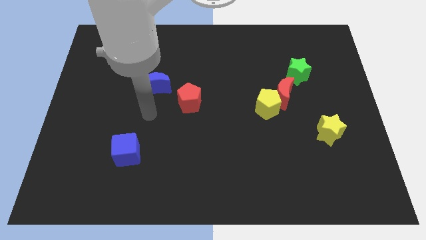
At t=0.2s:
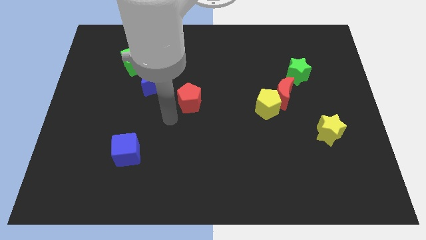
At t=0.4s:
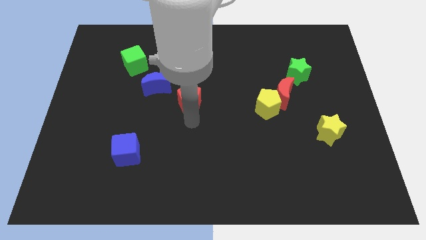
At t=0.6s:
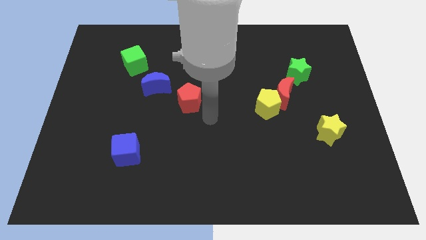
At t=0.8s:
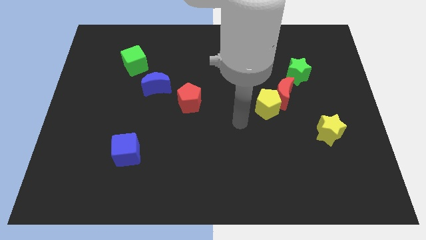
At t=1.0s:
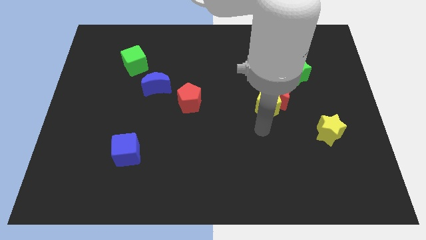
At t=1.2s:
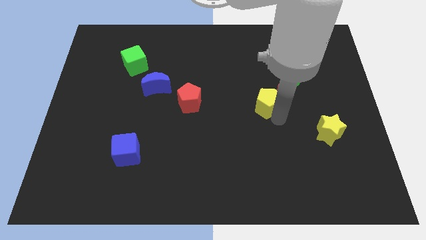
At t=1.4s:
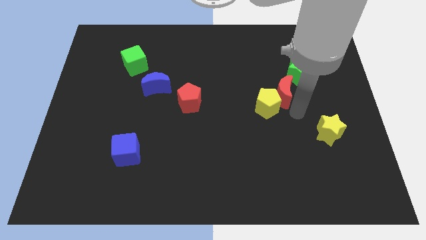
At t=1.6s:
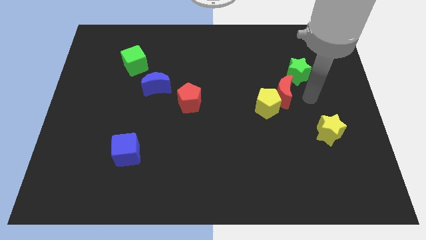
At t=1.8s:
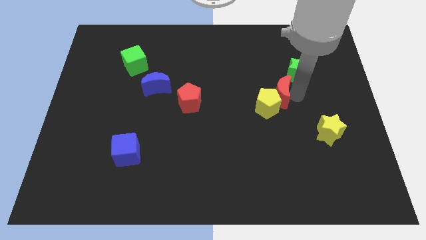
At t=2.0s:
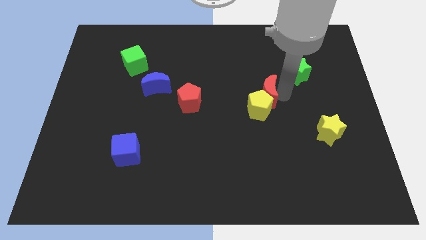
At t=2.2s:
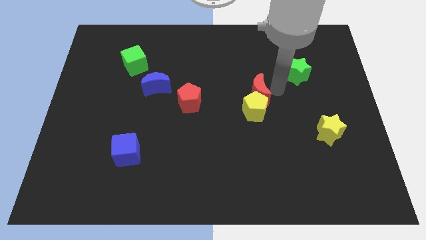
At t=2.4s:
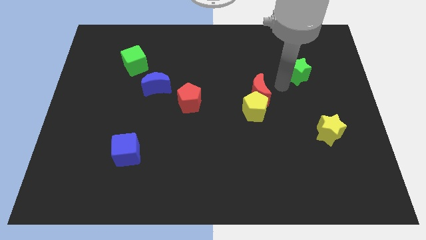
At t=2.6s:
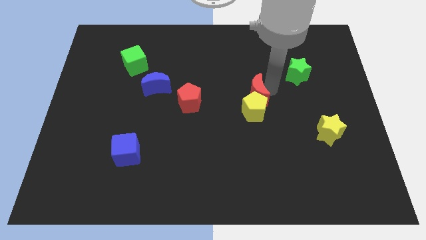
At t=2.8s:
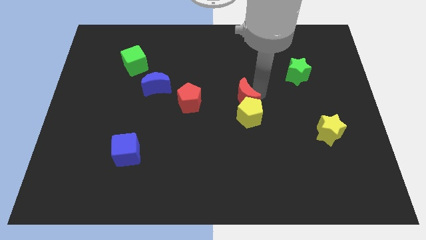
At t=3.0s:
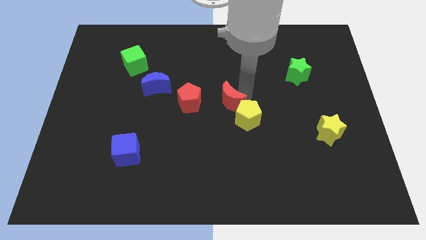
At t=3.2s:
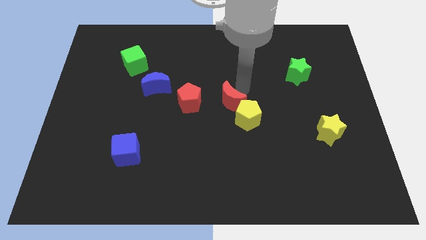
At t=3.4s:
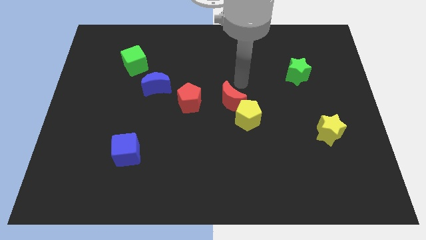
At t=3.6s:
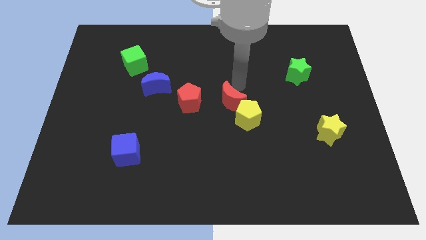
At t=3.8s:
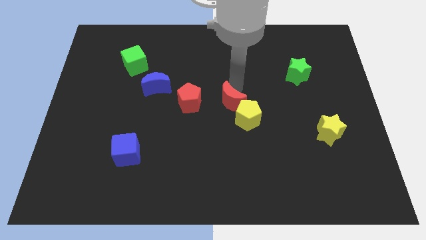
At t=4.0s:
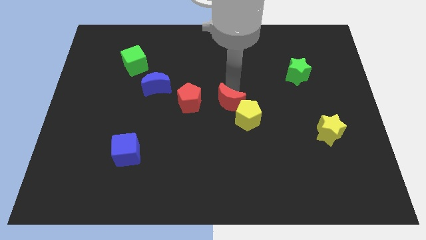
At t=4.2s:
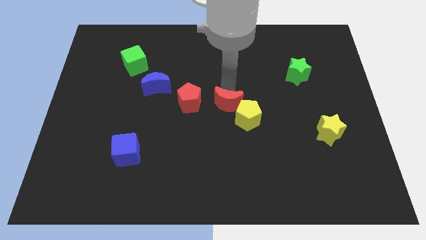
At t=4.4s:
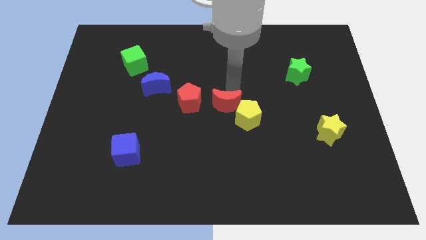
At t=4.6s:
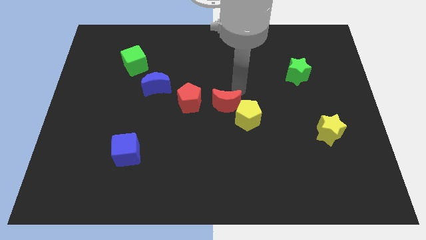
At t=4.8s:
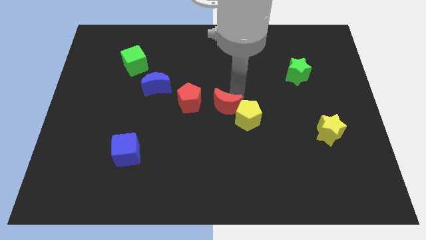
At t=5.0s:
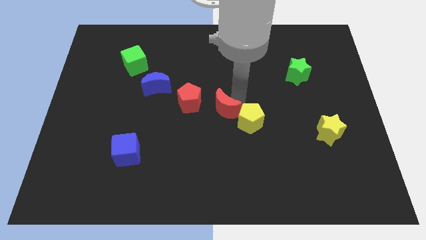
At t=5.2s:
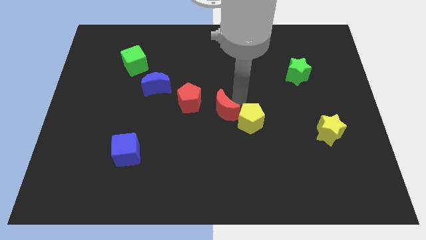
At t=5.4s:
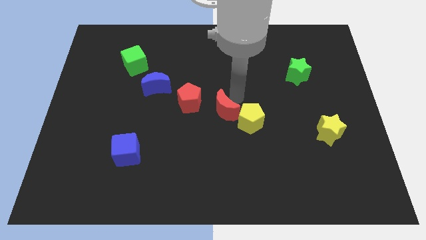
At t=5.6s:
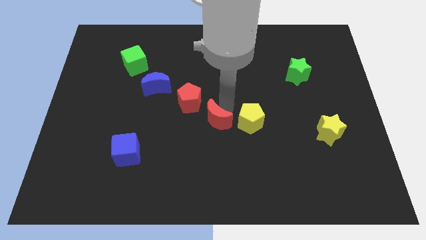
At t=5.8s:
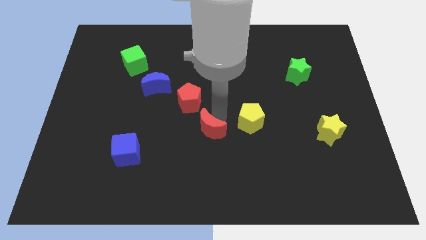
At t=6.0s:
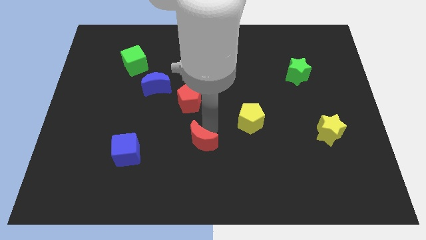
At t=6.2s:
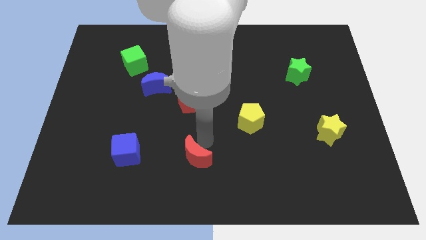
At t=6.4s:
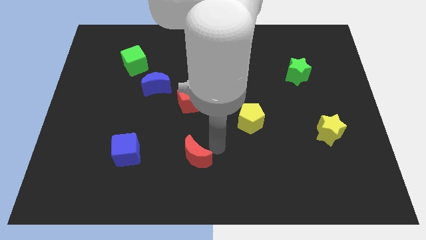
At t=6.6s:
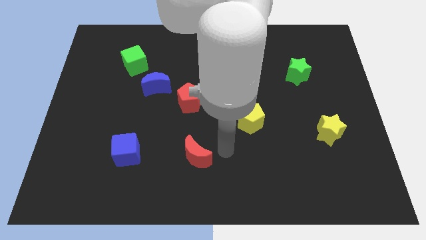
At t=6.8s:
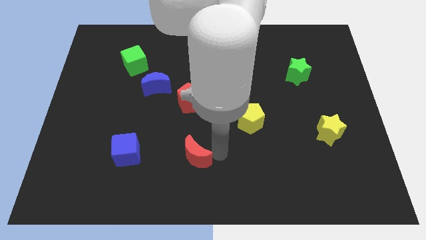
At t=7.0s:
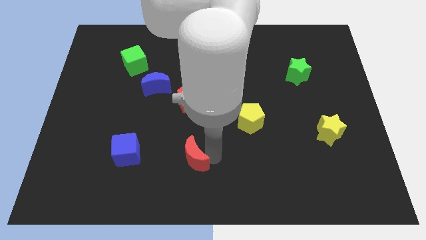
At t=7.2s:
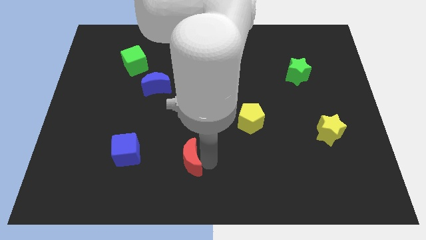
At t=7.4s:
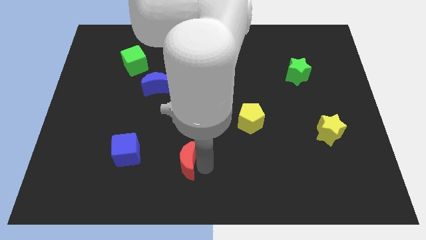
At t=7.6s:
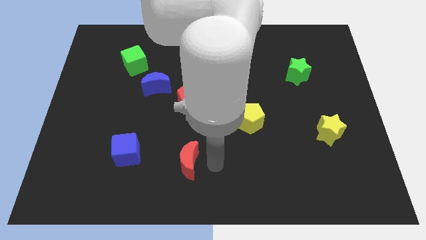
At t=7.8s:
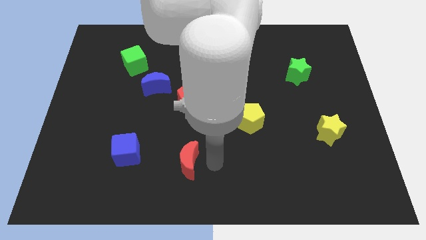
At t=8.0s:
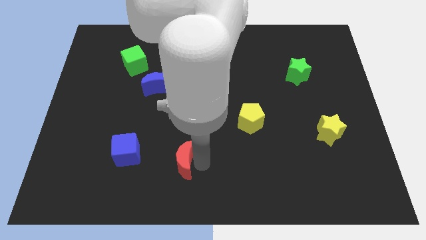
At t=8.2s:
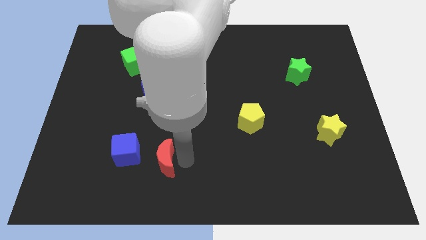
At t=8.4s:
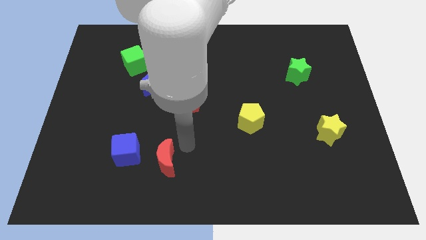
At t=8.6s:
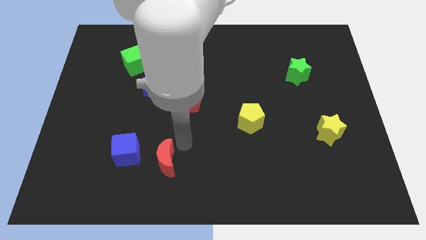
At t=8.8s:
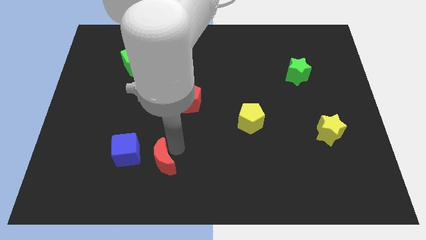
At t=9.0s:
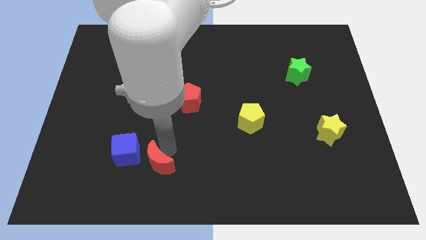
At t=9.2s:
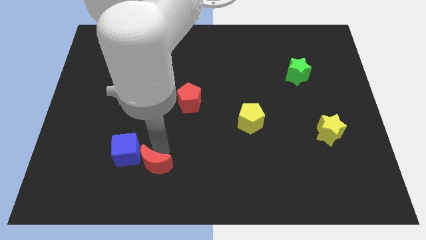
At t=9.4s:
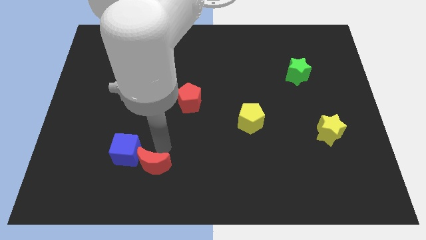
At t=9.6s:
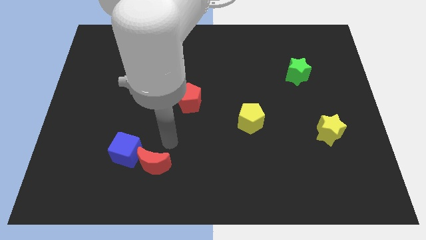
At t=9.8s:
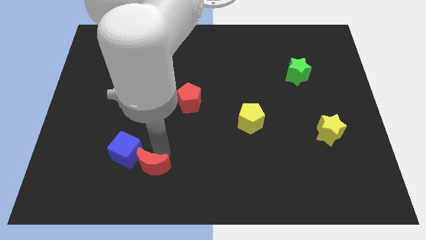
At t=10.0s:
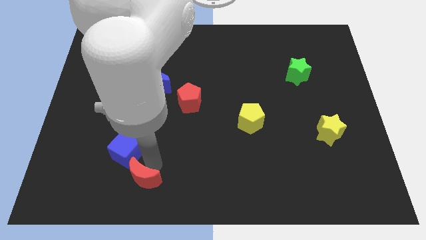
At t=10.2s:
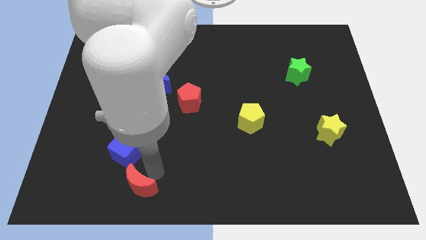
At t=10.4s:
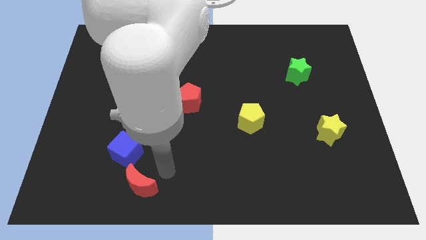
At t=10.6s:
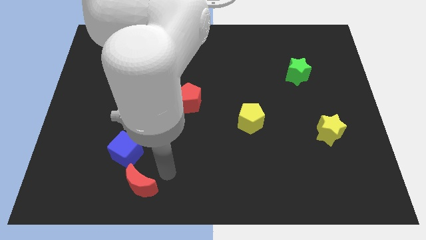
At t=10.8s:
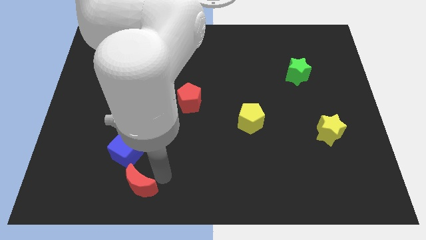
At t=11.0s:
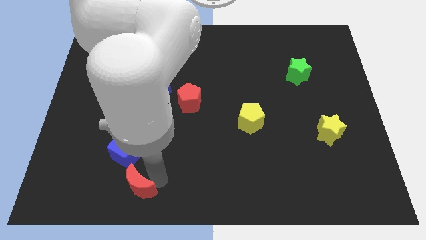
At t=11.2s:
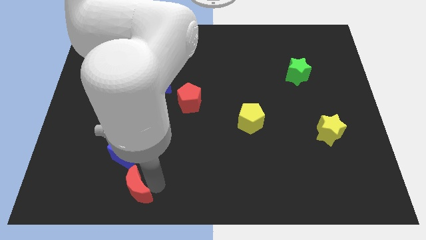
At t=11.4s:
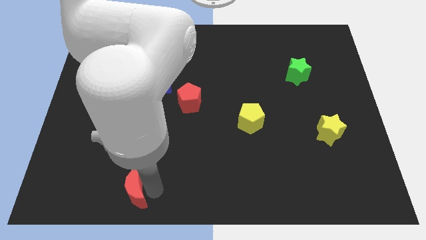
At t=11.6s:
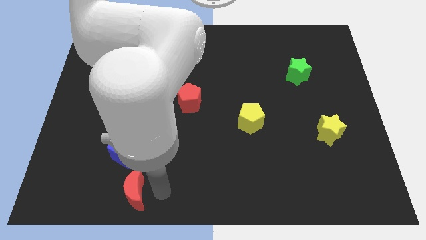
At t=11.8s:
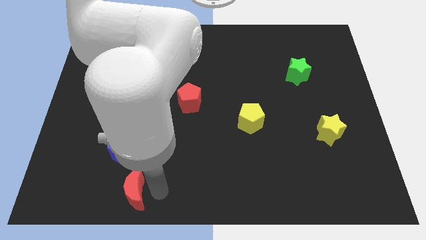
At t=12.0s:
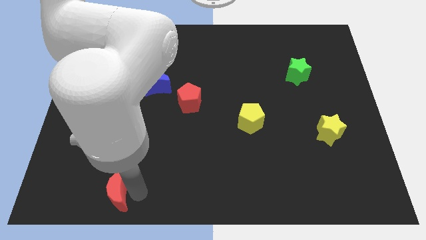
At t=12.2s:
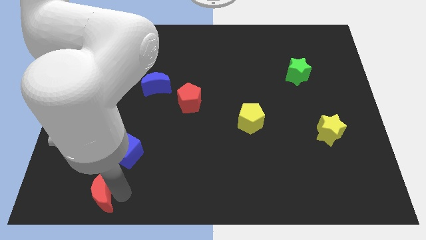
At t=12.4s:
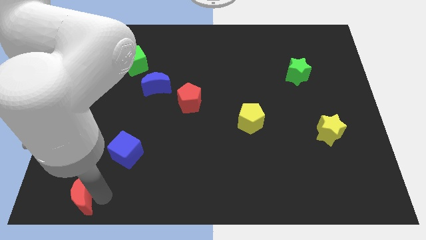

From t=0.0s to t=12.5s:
put the red moon to the bottom left

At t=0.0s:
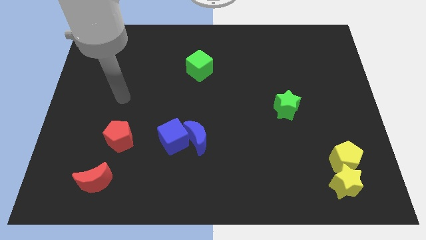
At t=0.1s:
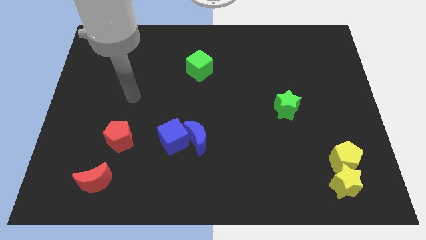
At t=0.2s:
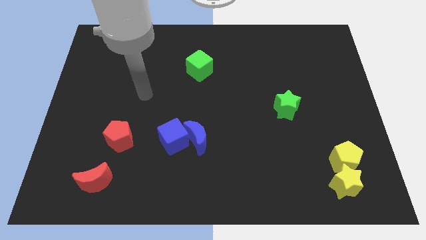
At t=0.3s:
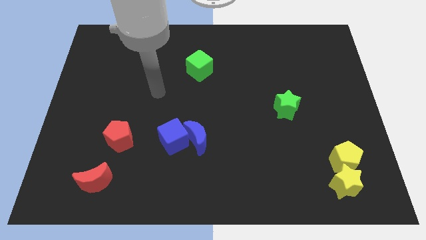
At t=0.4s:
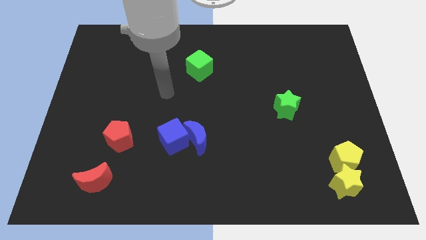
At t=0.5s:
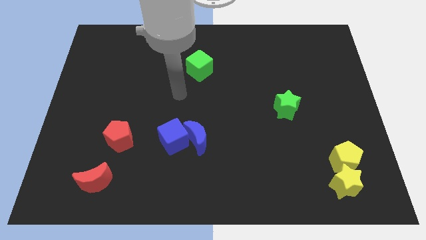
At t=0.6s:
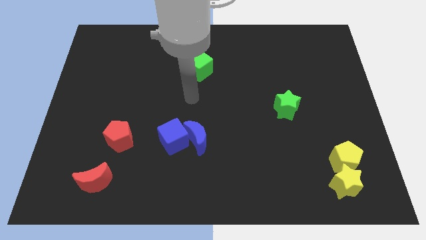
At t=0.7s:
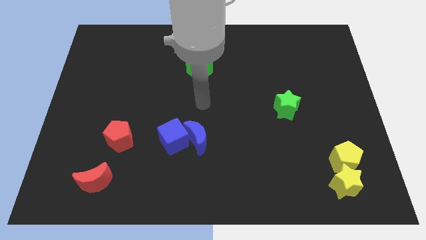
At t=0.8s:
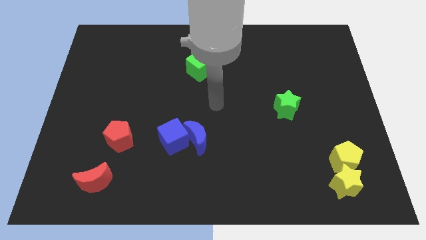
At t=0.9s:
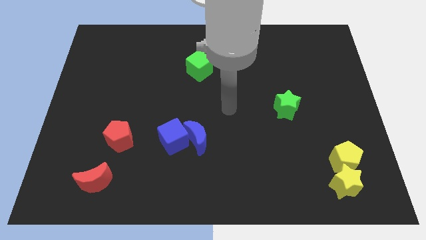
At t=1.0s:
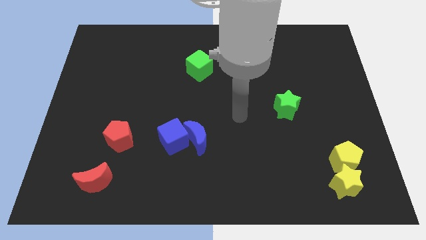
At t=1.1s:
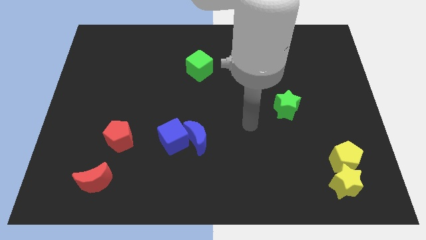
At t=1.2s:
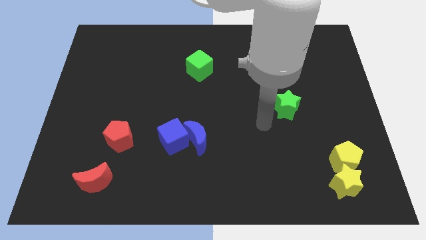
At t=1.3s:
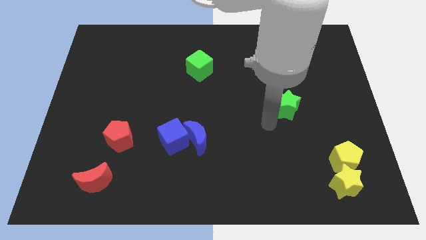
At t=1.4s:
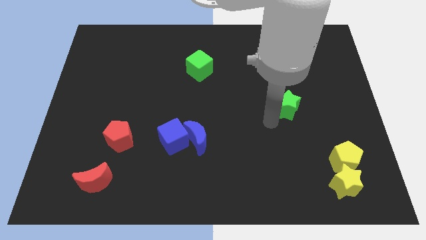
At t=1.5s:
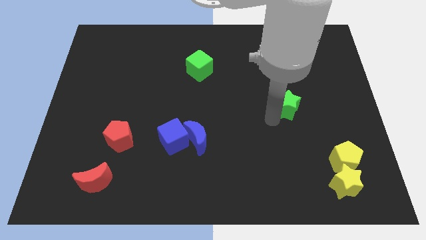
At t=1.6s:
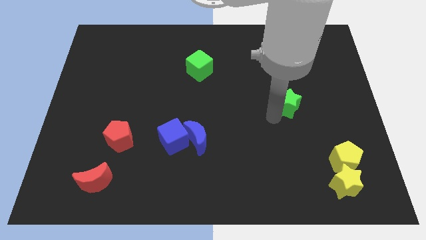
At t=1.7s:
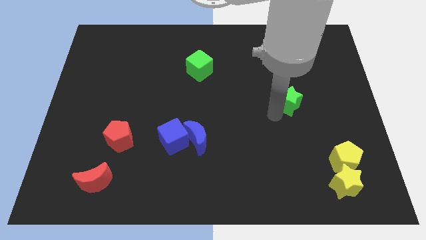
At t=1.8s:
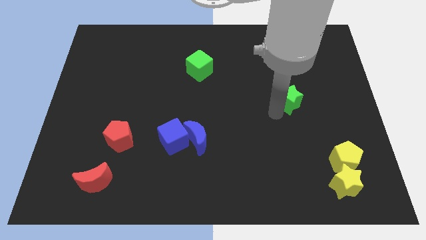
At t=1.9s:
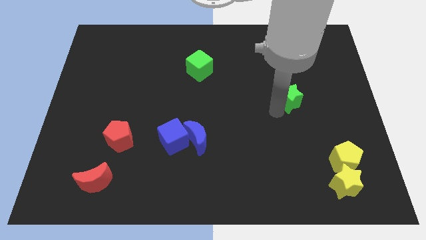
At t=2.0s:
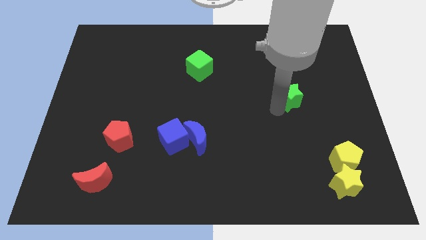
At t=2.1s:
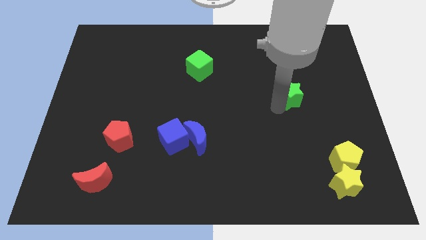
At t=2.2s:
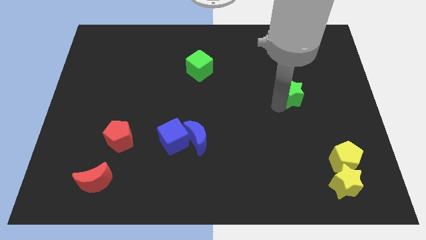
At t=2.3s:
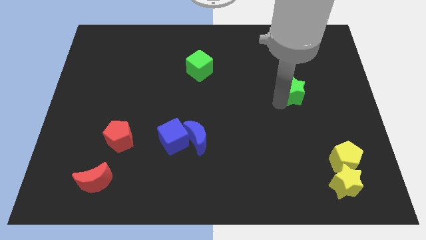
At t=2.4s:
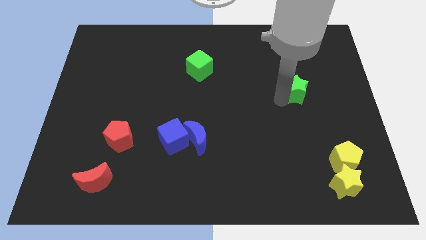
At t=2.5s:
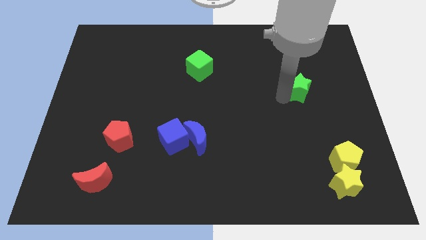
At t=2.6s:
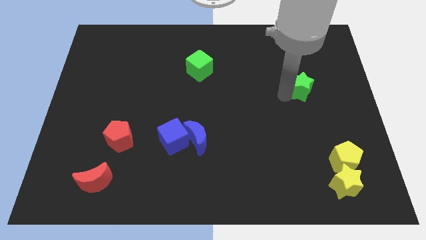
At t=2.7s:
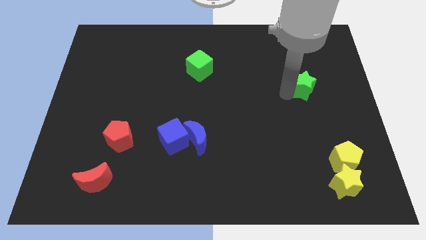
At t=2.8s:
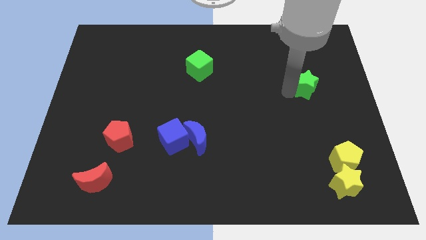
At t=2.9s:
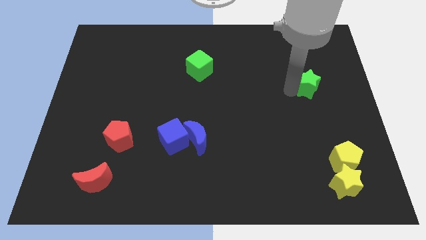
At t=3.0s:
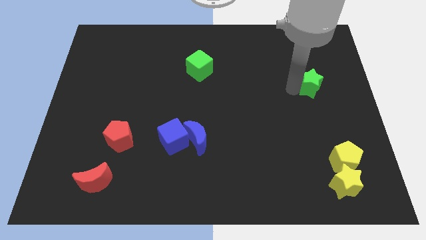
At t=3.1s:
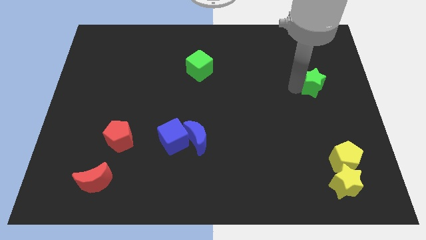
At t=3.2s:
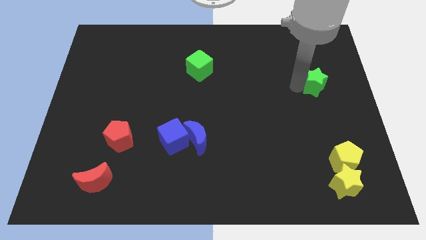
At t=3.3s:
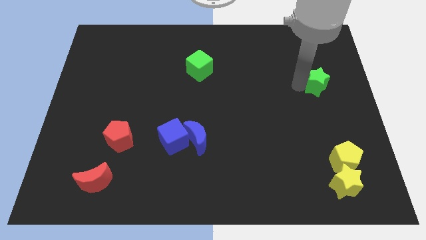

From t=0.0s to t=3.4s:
push the green star to the right side of the board
